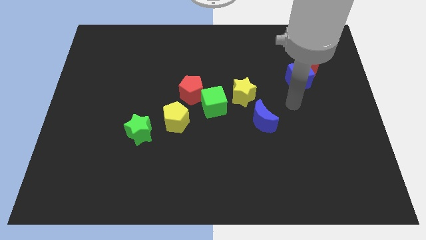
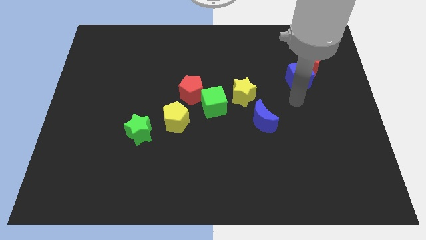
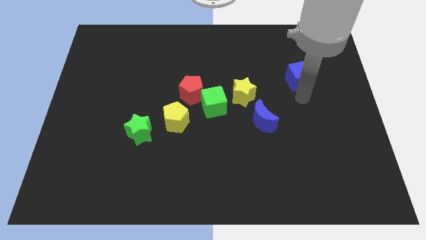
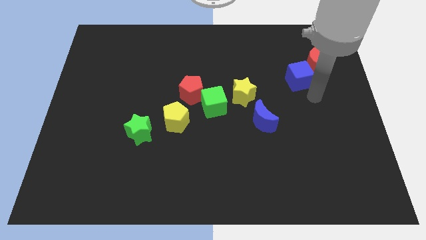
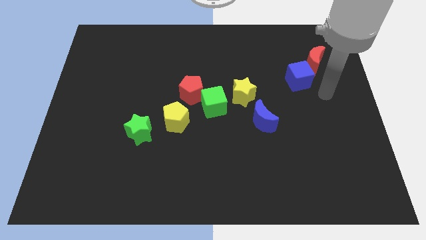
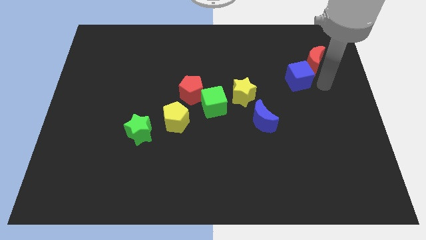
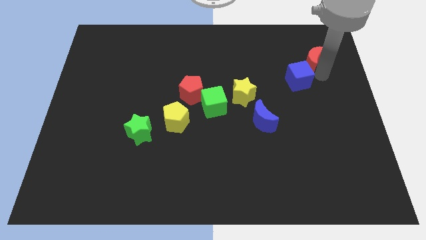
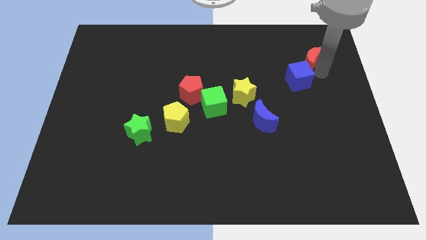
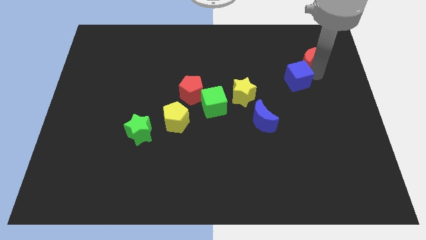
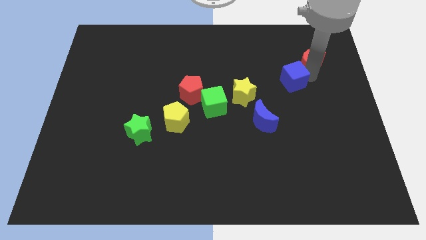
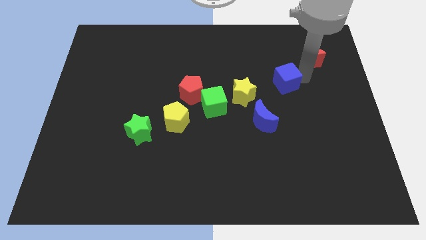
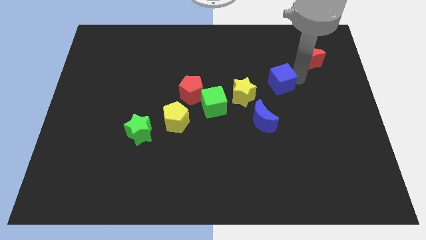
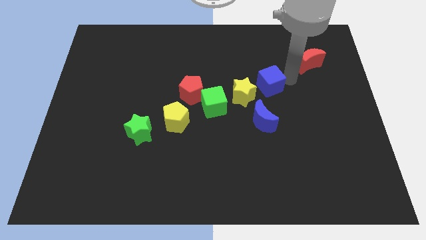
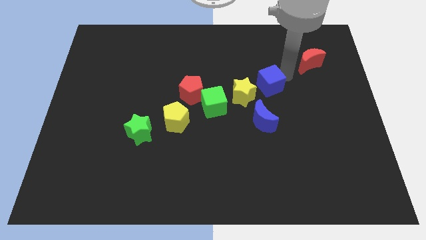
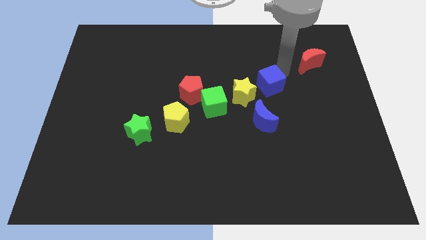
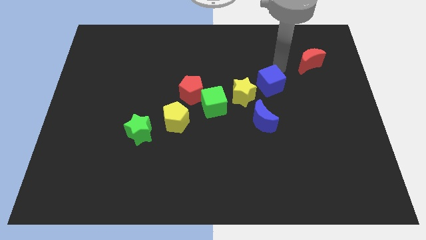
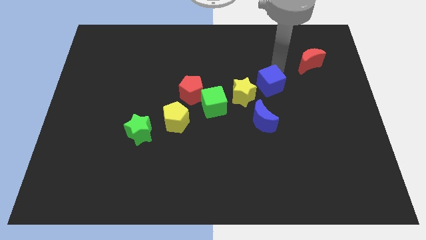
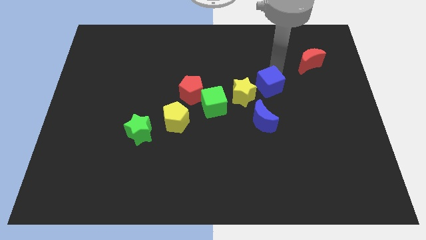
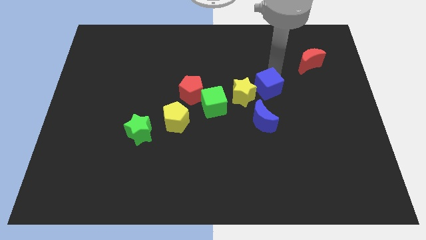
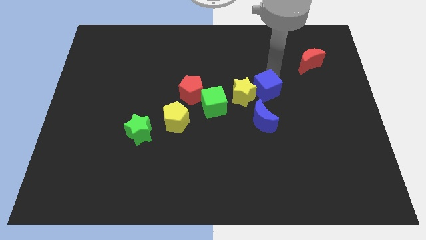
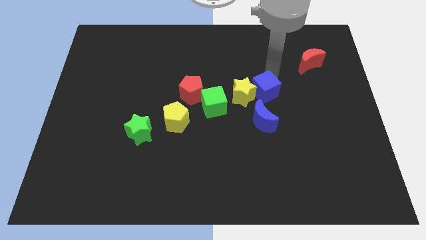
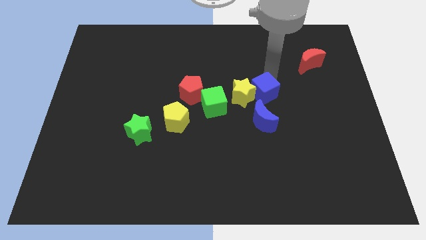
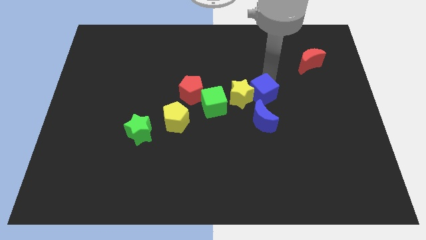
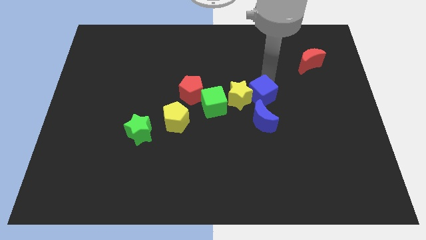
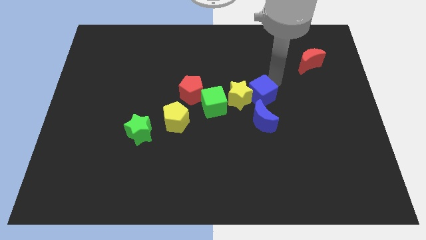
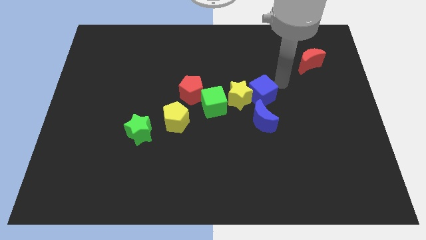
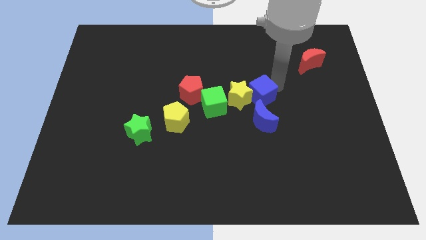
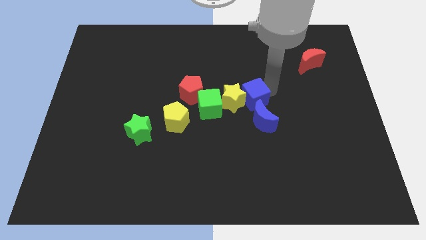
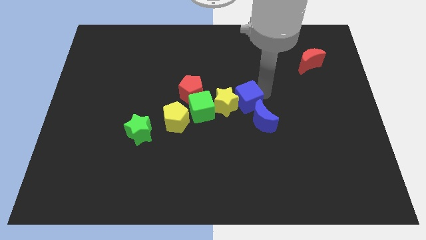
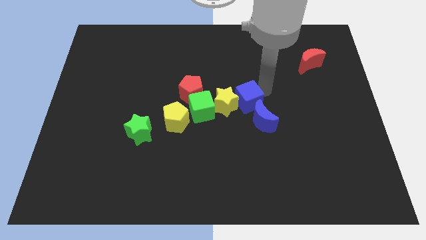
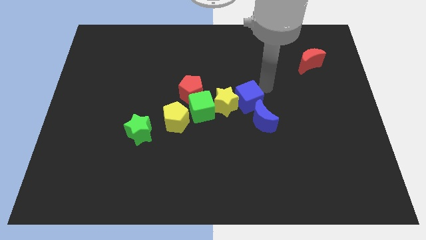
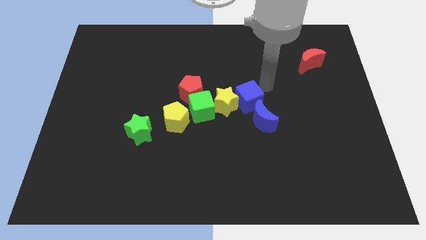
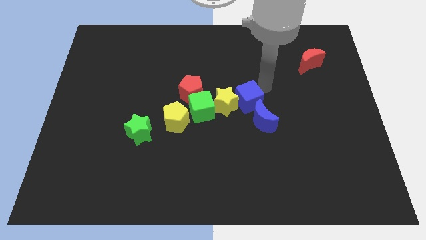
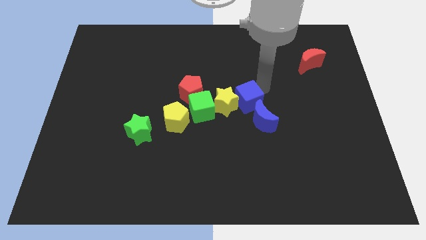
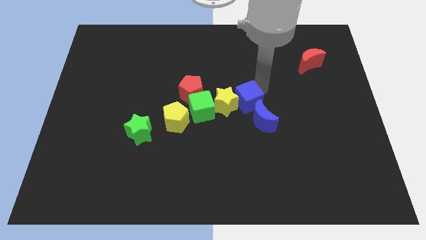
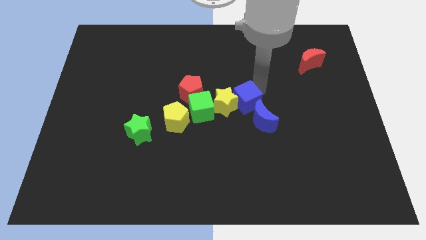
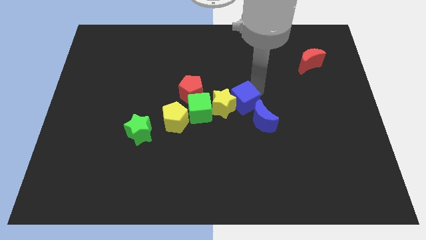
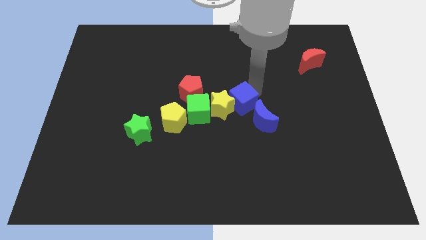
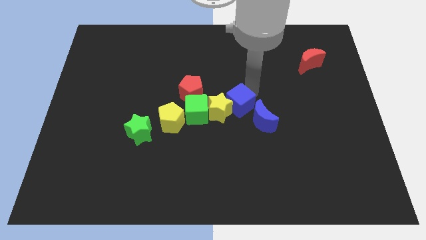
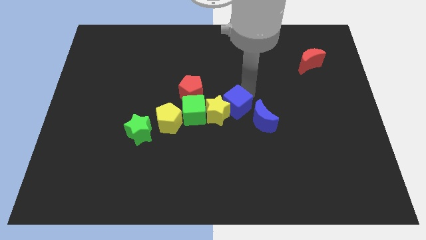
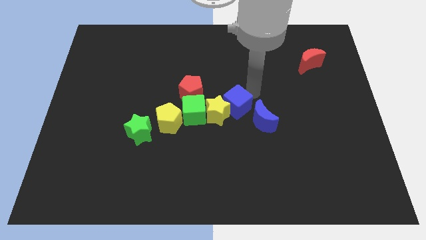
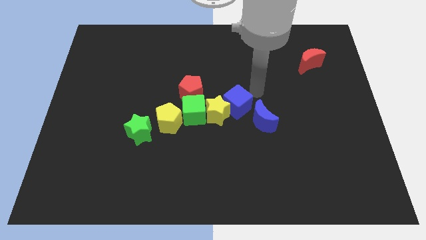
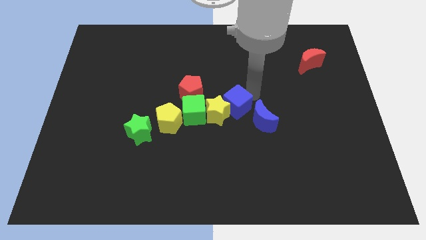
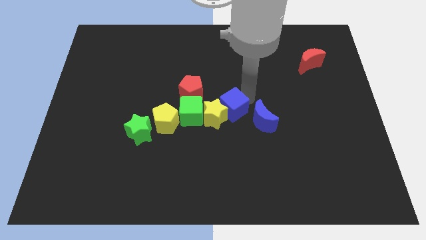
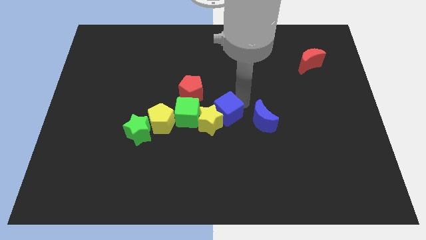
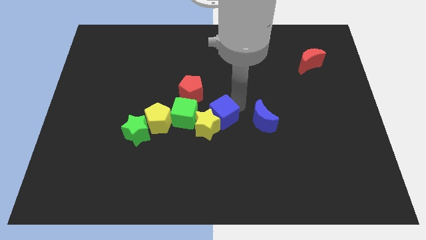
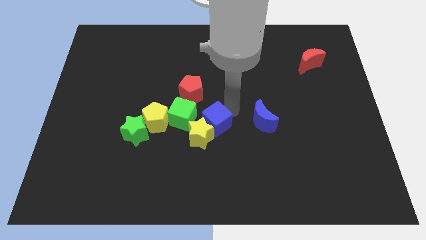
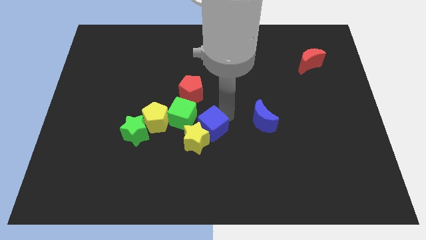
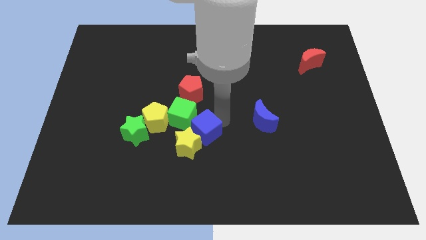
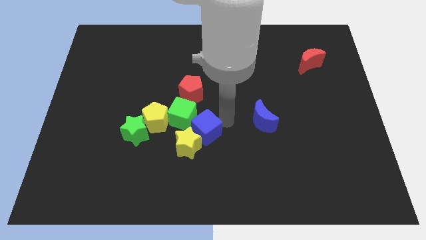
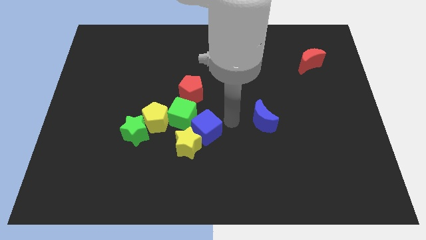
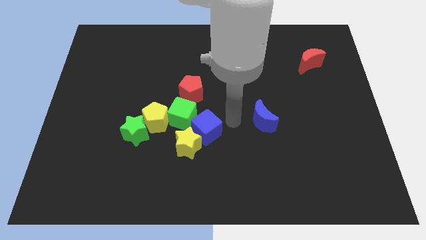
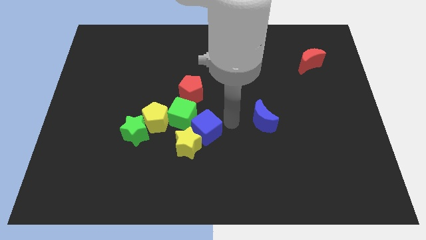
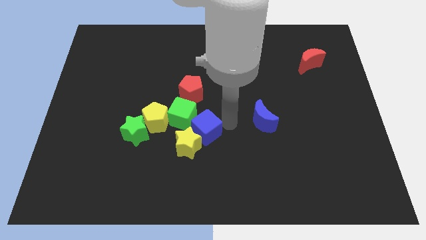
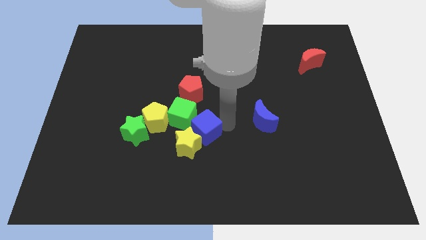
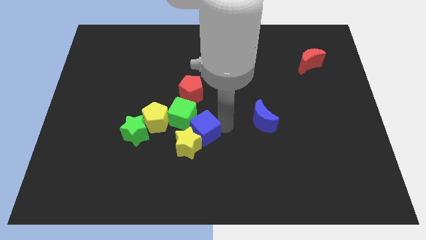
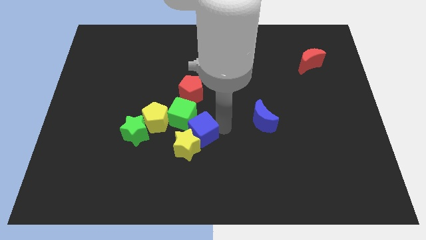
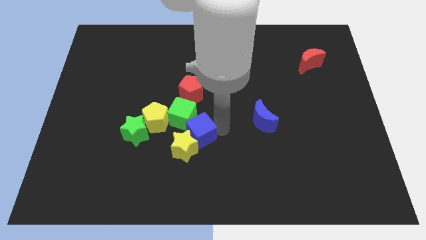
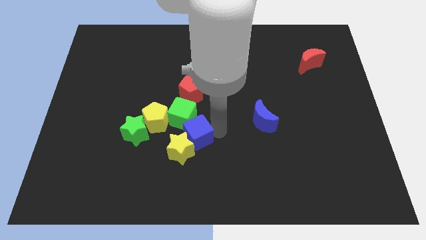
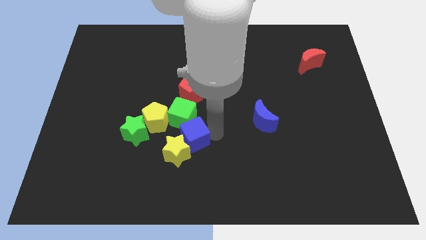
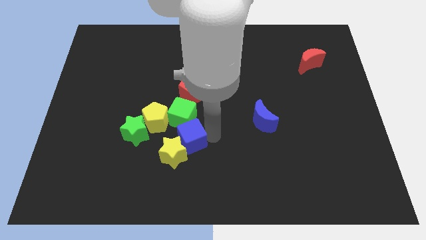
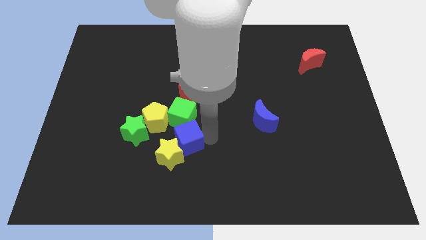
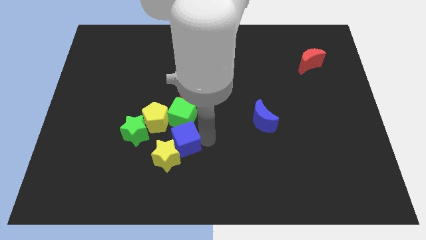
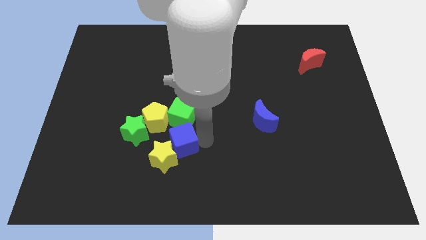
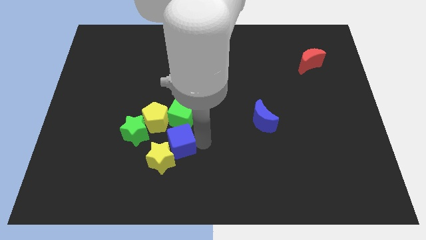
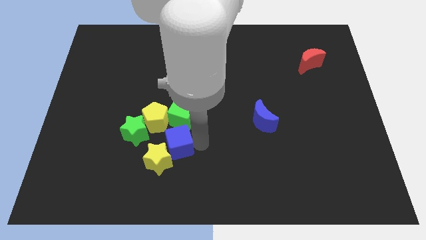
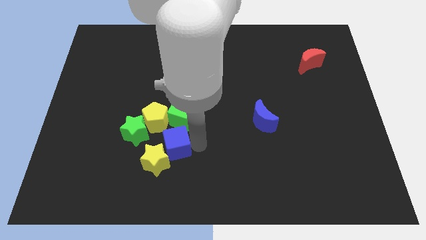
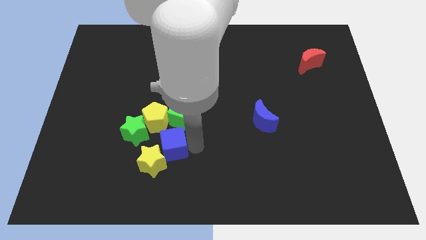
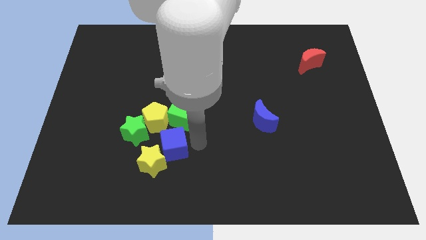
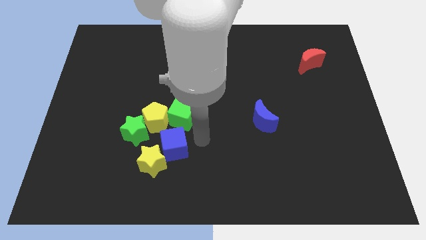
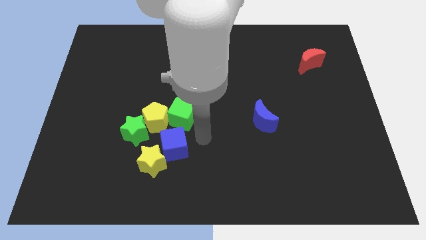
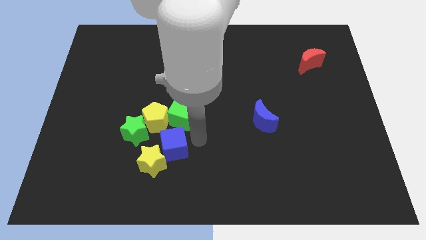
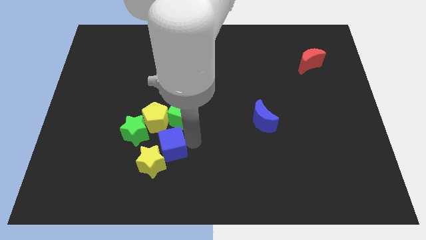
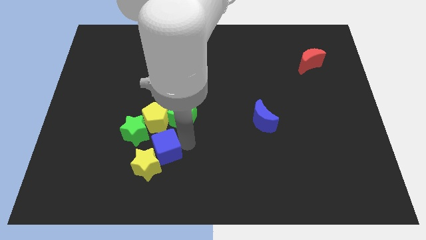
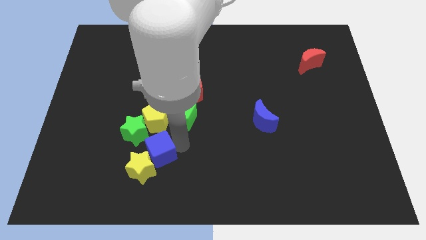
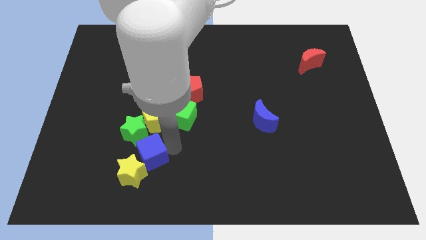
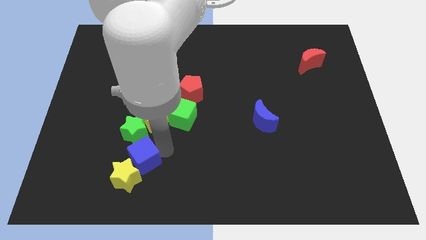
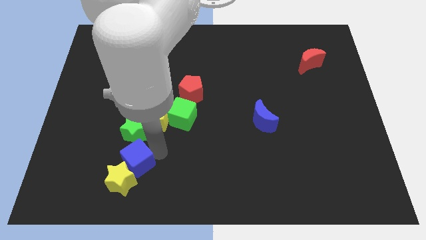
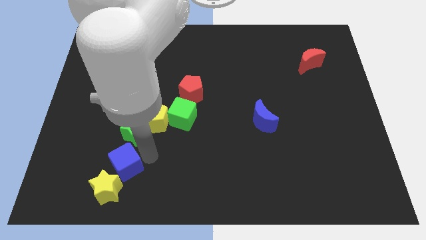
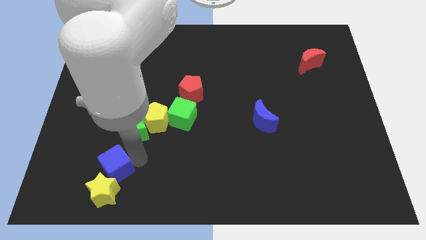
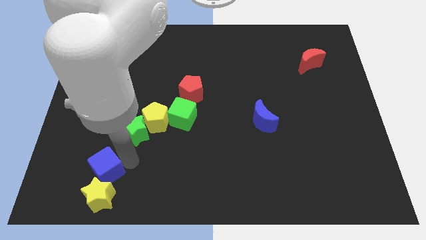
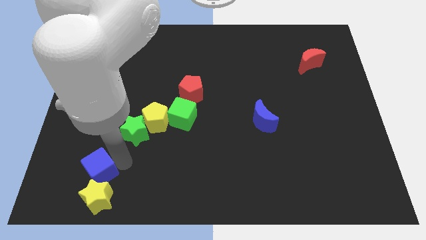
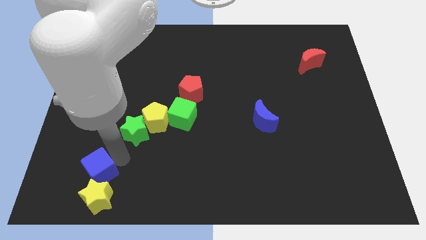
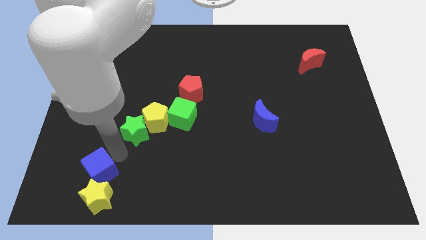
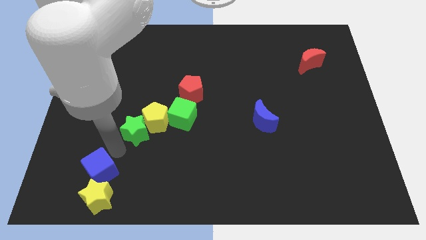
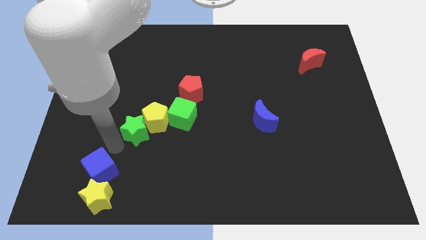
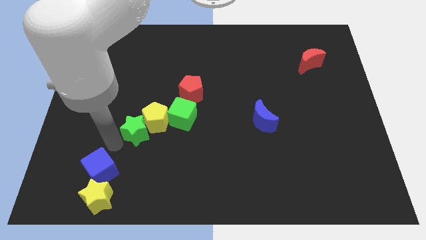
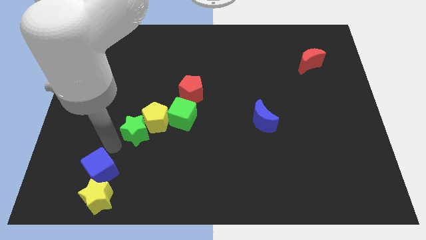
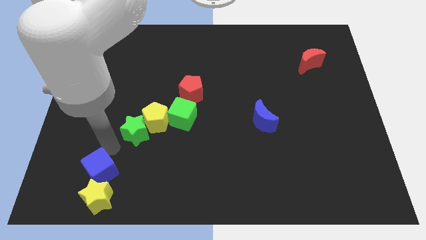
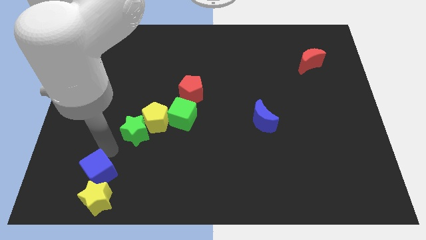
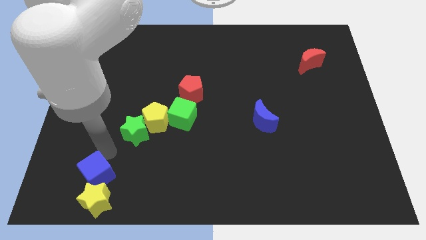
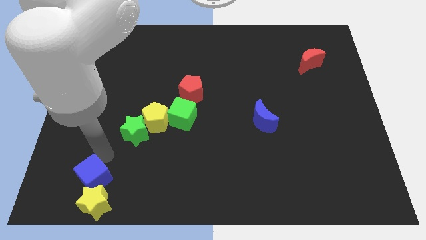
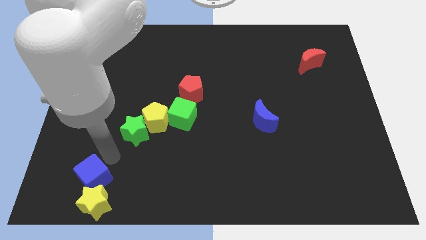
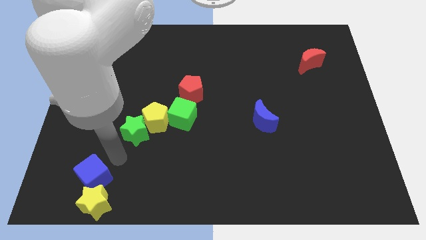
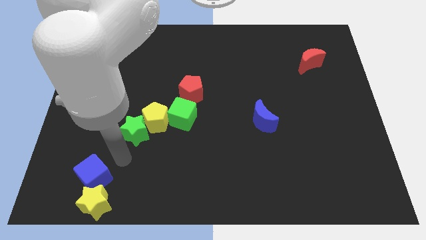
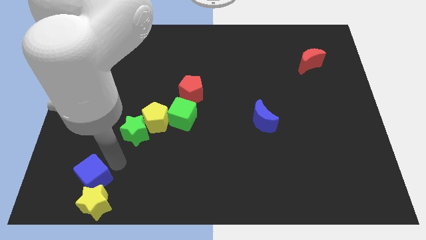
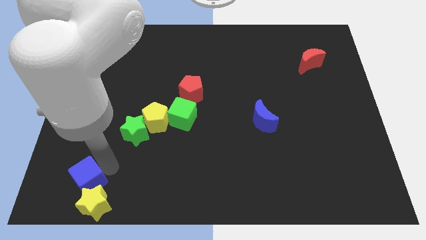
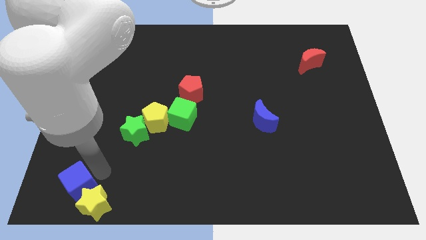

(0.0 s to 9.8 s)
slide the blue cube to the bottom left corner
